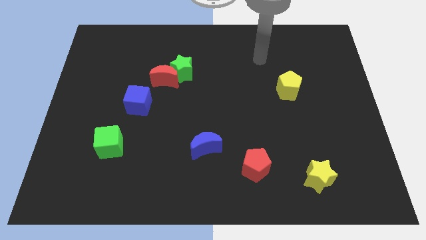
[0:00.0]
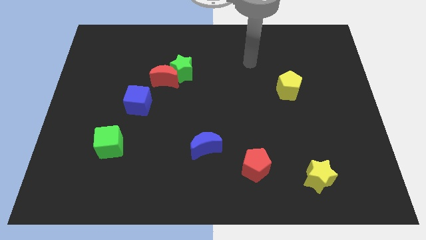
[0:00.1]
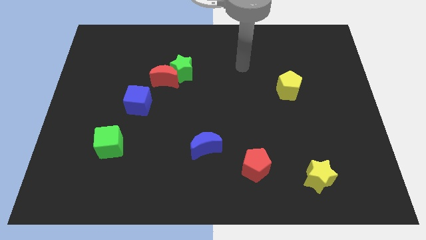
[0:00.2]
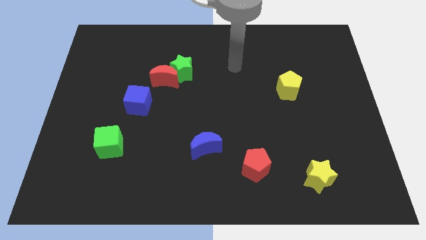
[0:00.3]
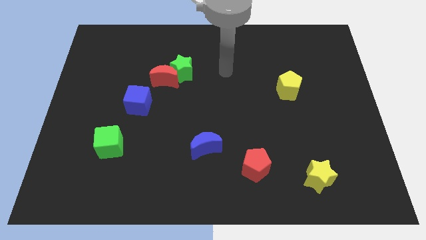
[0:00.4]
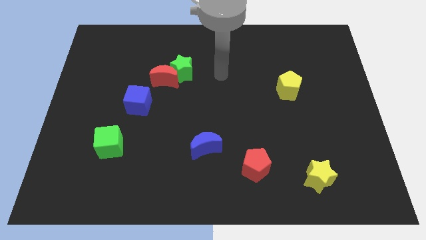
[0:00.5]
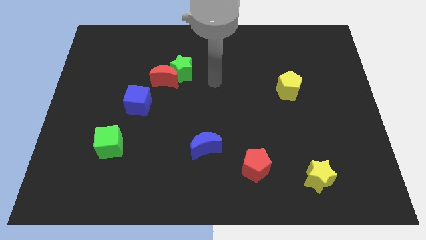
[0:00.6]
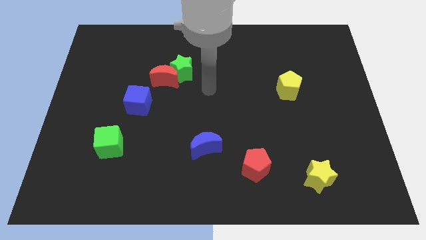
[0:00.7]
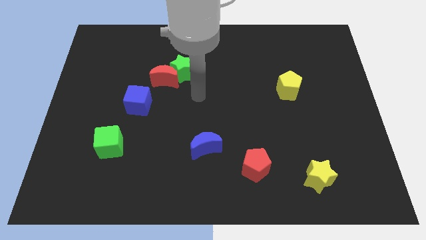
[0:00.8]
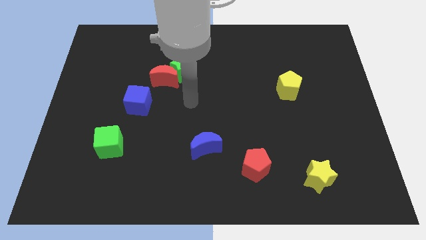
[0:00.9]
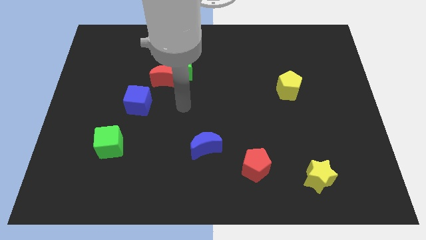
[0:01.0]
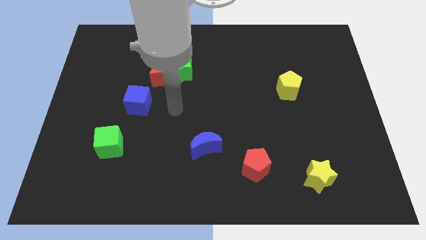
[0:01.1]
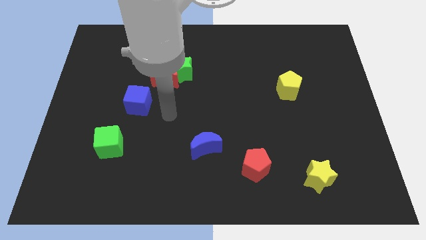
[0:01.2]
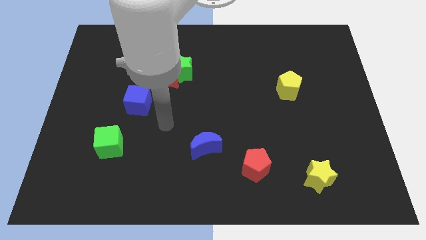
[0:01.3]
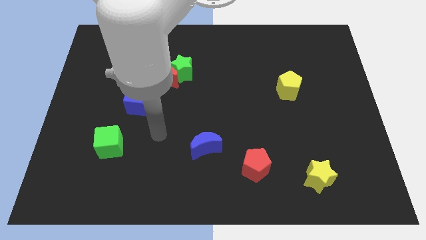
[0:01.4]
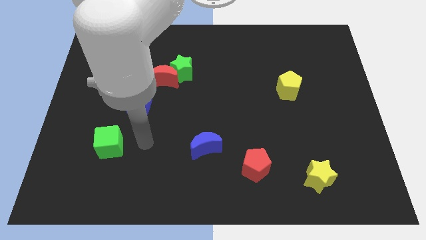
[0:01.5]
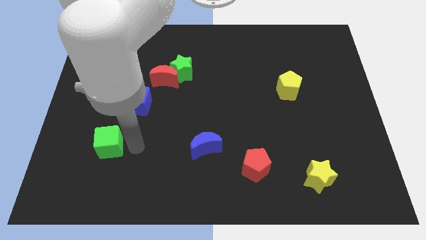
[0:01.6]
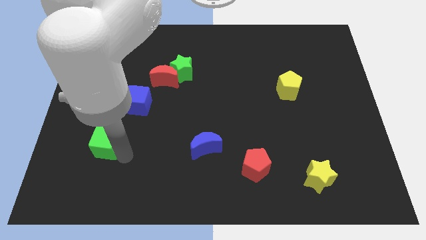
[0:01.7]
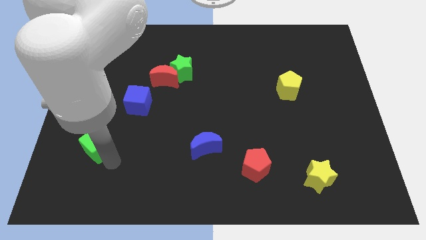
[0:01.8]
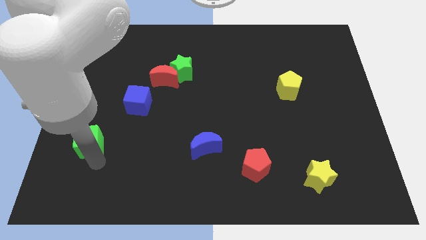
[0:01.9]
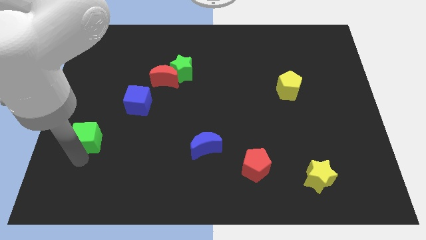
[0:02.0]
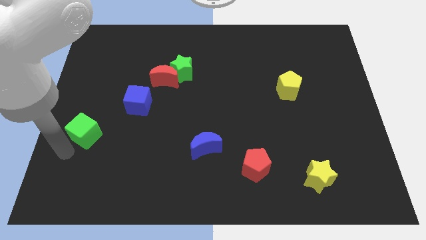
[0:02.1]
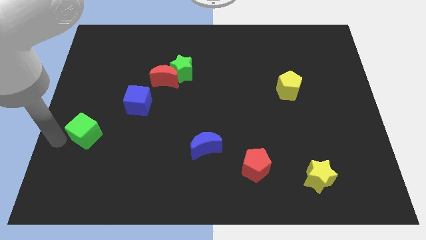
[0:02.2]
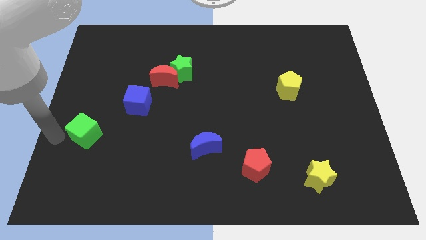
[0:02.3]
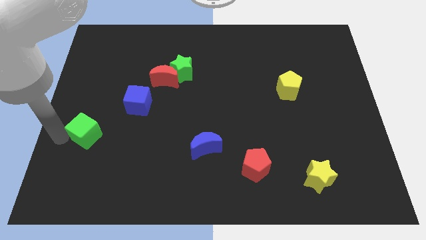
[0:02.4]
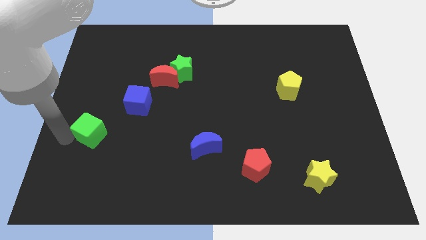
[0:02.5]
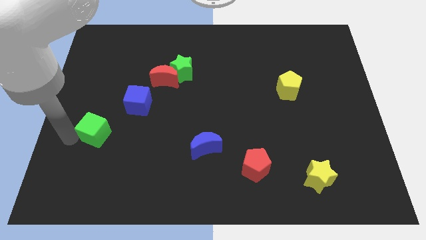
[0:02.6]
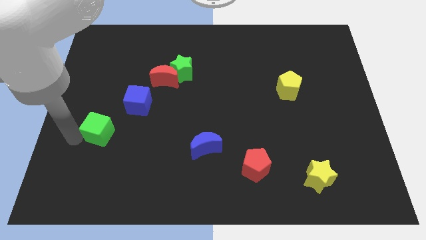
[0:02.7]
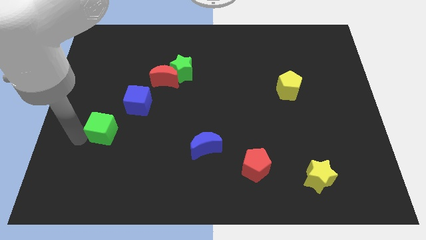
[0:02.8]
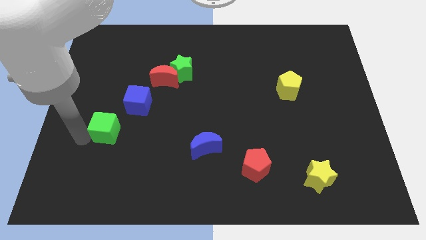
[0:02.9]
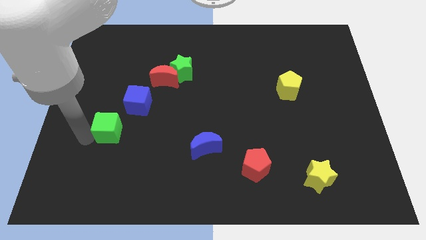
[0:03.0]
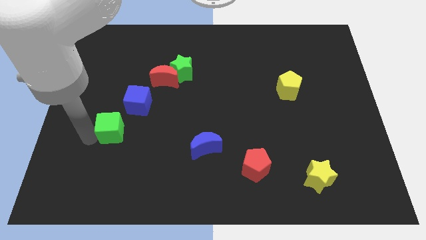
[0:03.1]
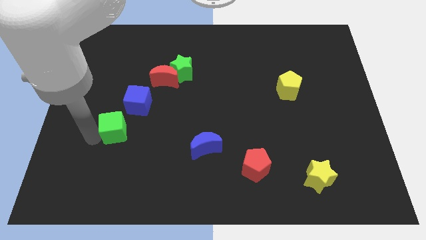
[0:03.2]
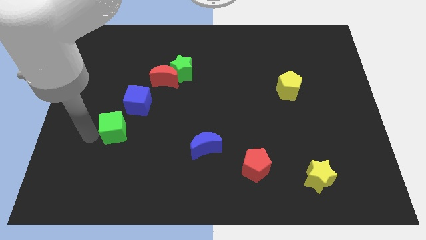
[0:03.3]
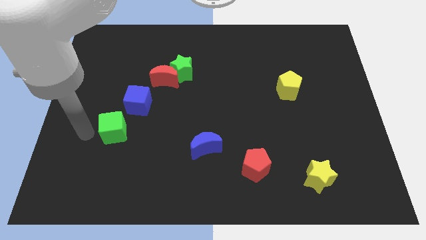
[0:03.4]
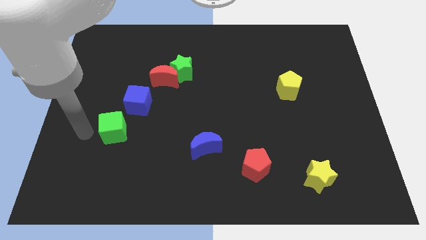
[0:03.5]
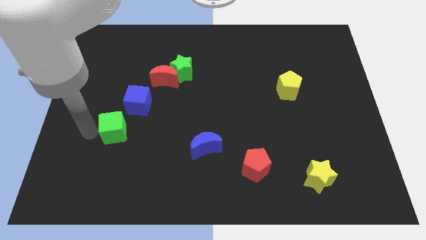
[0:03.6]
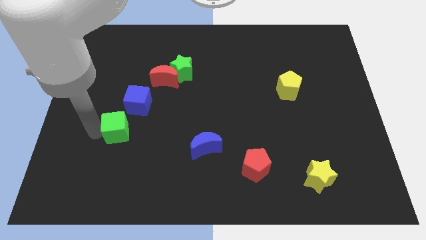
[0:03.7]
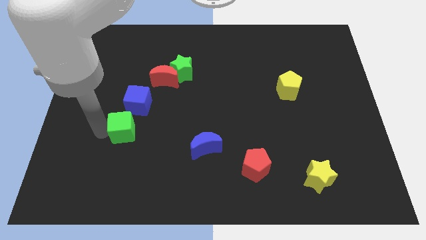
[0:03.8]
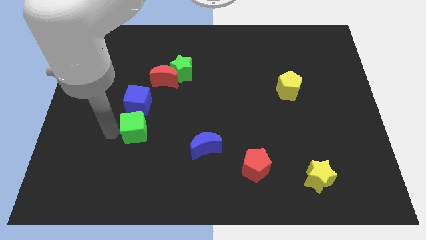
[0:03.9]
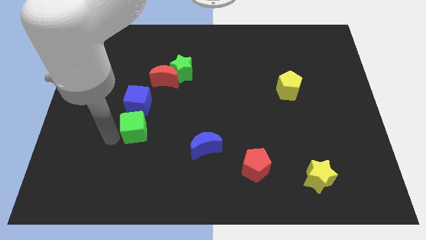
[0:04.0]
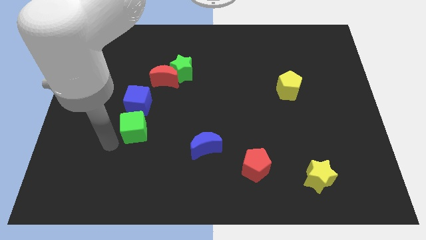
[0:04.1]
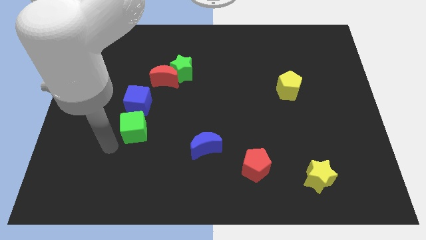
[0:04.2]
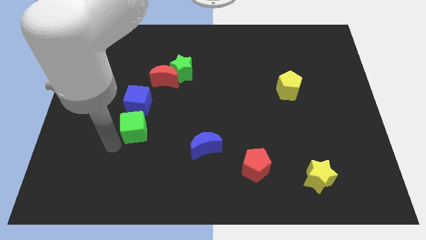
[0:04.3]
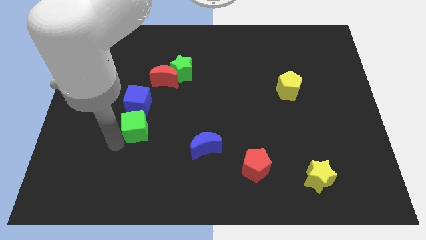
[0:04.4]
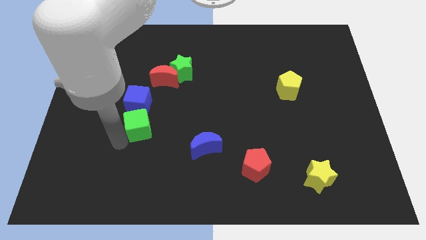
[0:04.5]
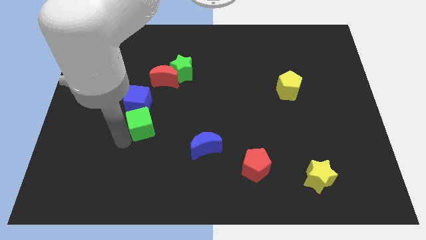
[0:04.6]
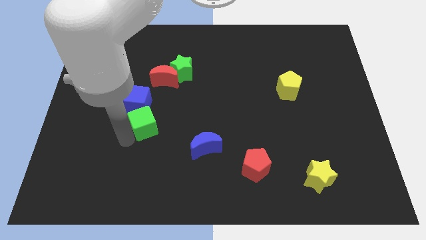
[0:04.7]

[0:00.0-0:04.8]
put the green cube to the bottom side of the red moon

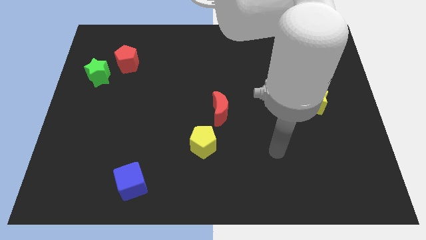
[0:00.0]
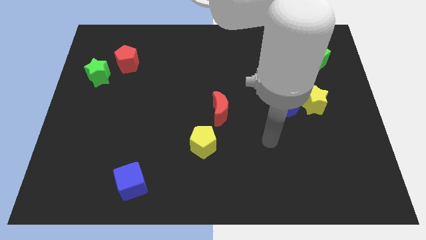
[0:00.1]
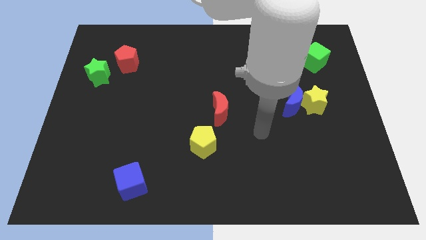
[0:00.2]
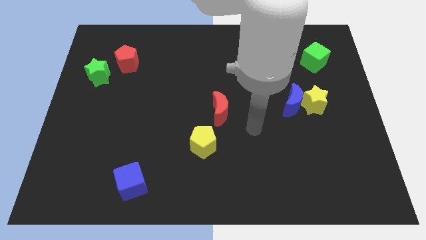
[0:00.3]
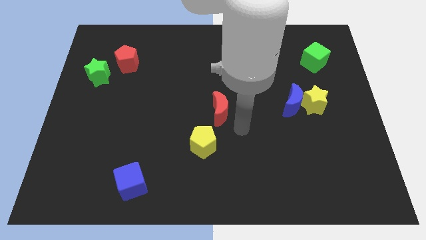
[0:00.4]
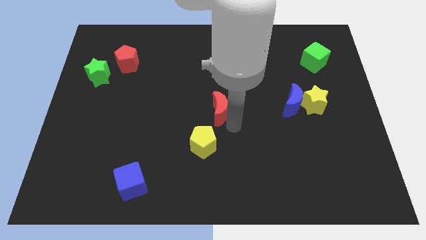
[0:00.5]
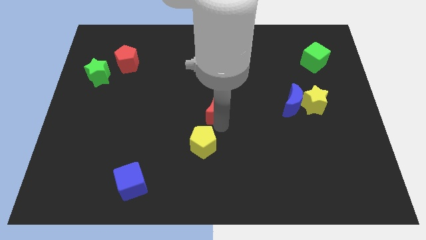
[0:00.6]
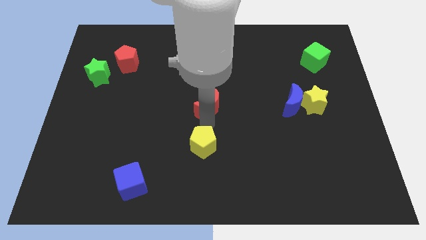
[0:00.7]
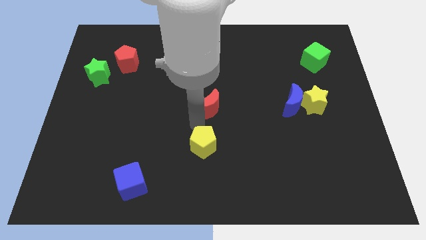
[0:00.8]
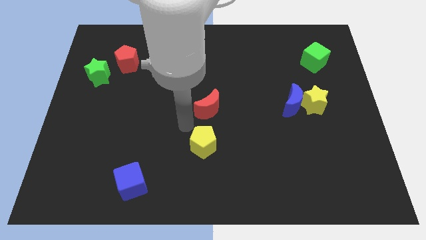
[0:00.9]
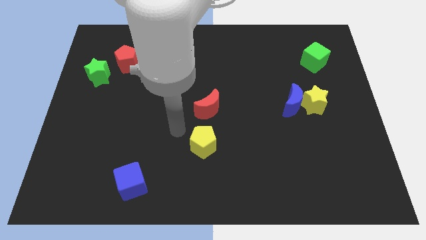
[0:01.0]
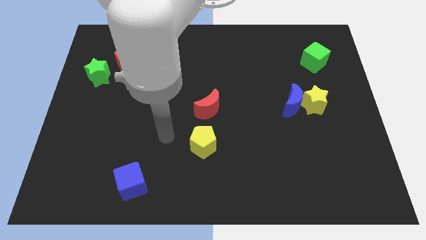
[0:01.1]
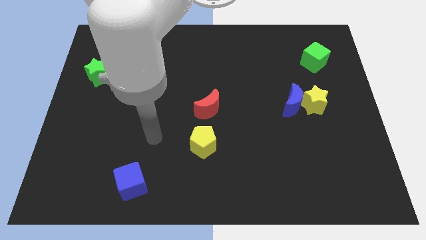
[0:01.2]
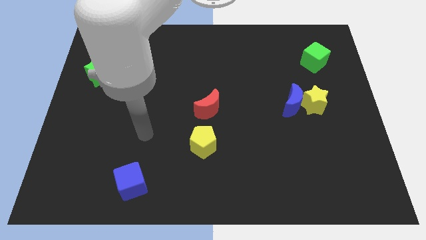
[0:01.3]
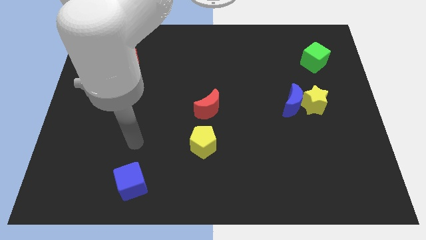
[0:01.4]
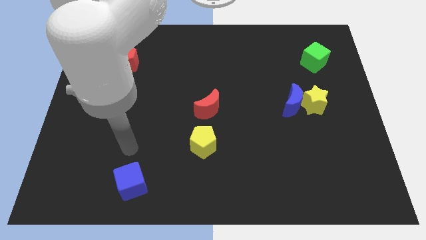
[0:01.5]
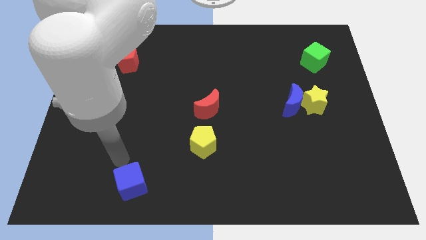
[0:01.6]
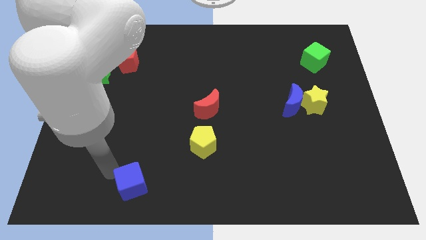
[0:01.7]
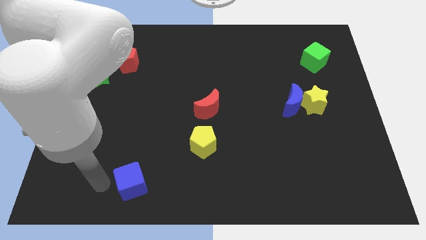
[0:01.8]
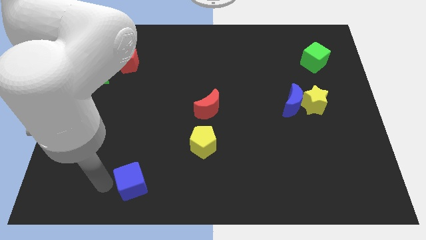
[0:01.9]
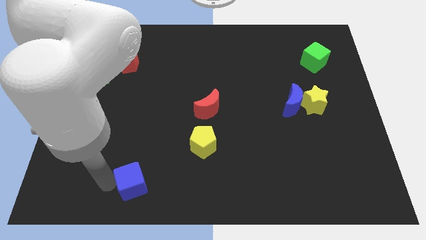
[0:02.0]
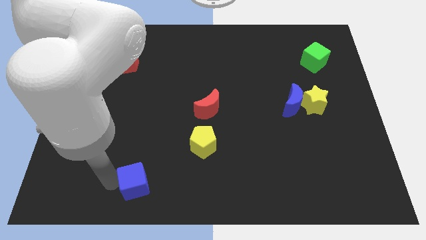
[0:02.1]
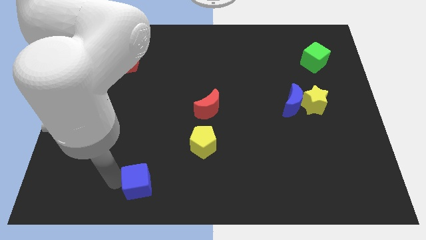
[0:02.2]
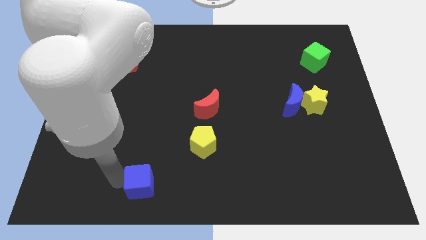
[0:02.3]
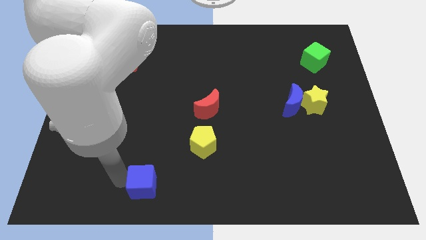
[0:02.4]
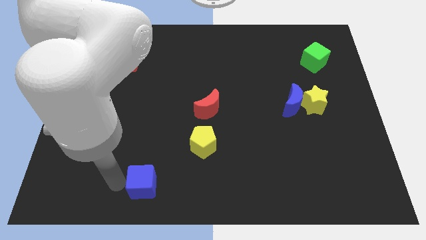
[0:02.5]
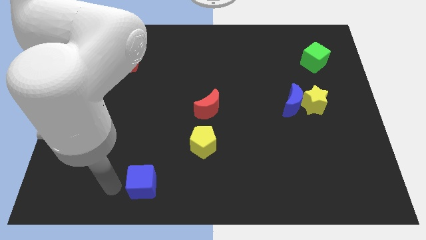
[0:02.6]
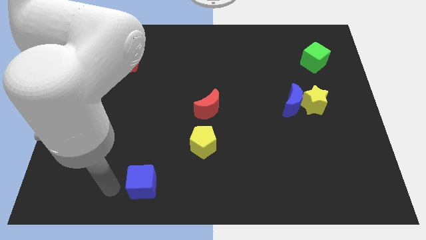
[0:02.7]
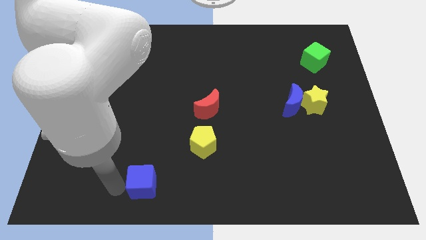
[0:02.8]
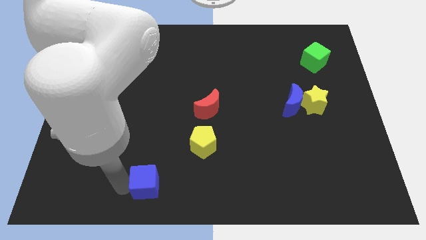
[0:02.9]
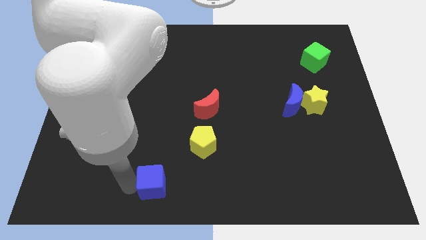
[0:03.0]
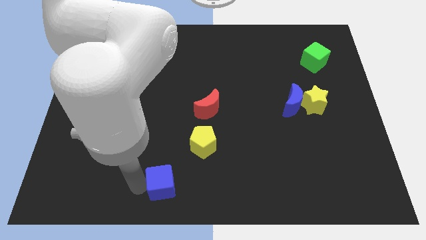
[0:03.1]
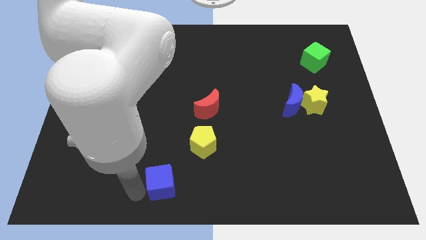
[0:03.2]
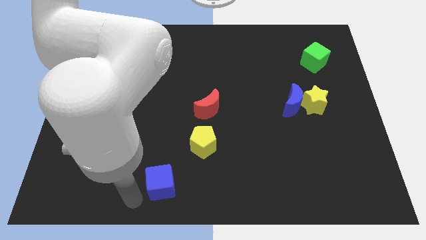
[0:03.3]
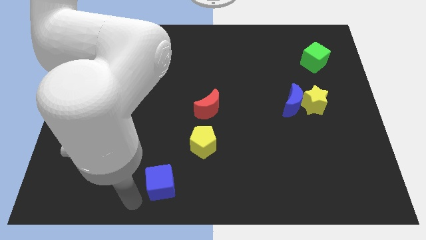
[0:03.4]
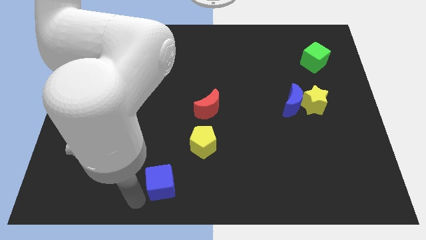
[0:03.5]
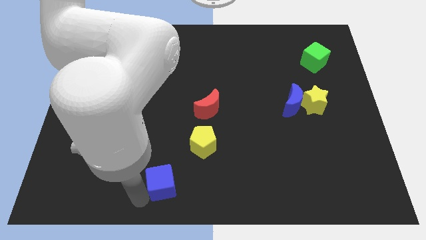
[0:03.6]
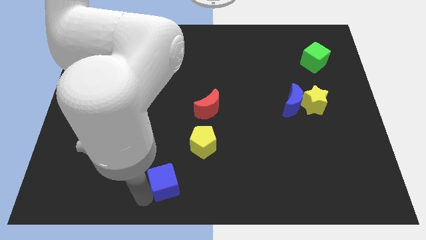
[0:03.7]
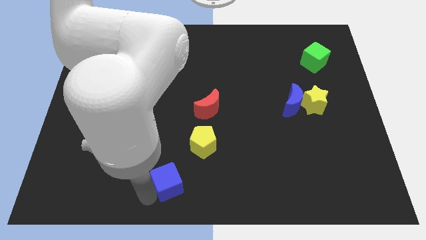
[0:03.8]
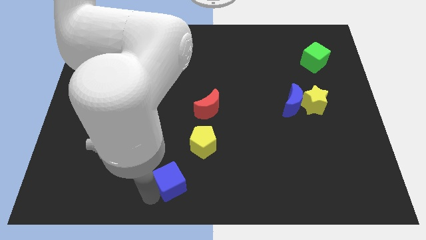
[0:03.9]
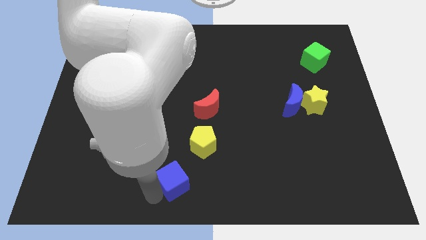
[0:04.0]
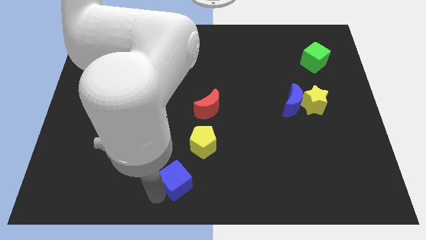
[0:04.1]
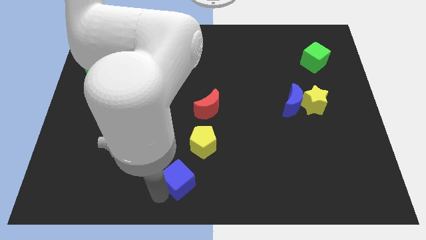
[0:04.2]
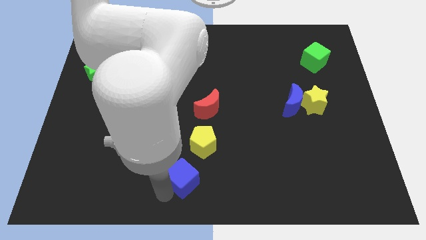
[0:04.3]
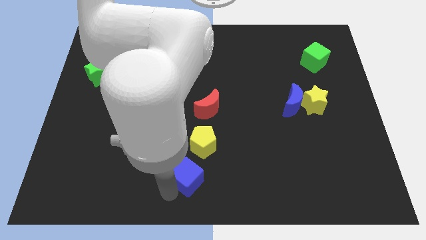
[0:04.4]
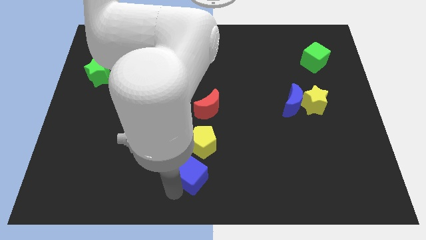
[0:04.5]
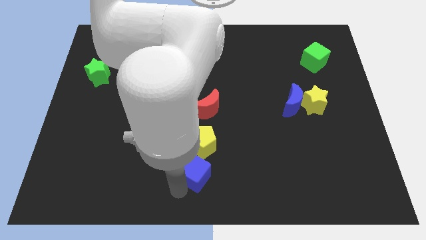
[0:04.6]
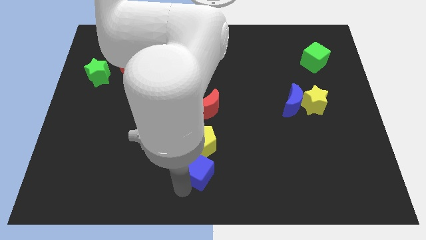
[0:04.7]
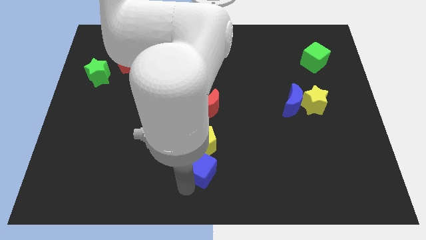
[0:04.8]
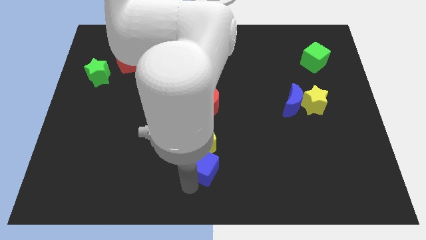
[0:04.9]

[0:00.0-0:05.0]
put the blue cube to the bottom of the red moon
